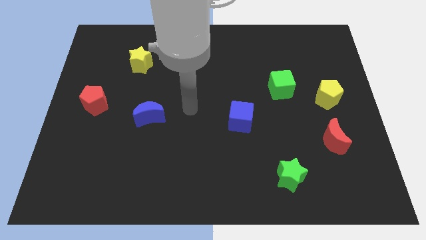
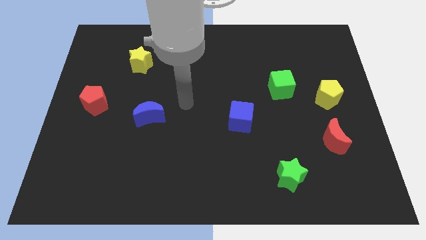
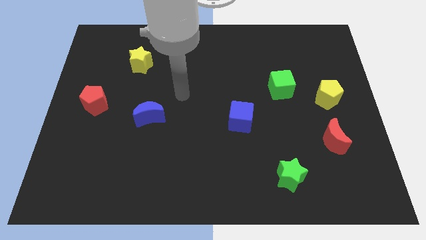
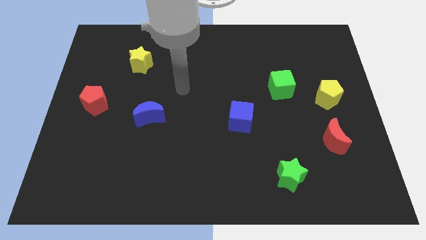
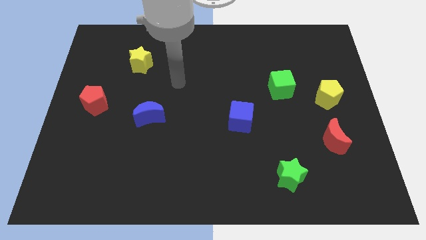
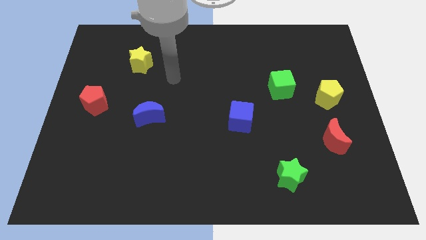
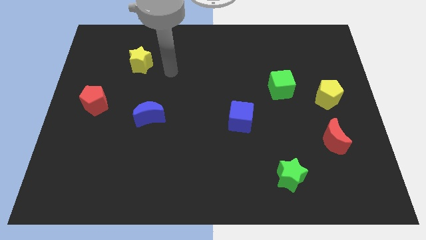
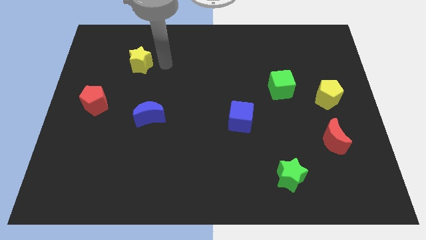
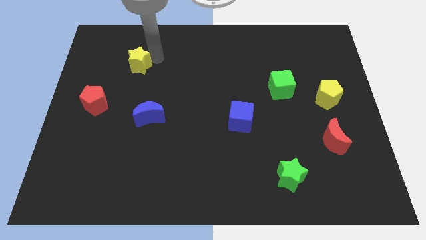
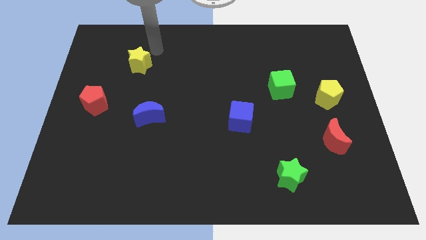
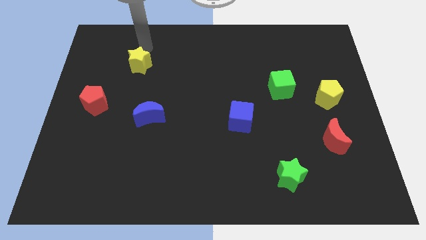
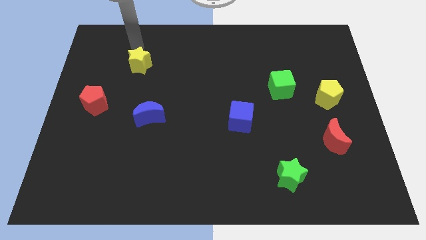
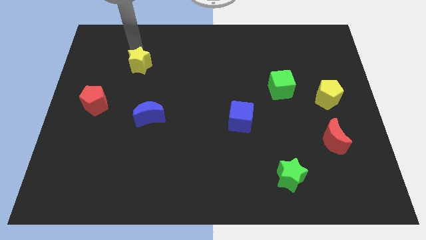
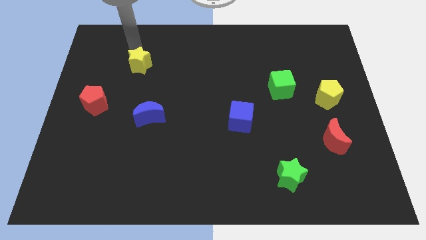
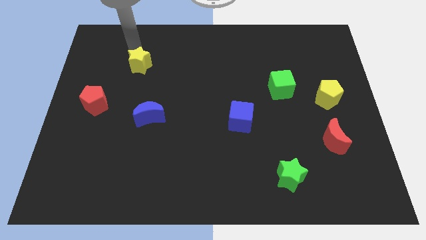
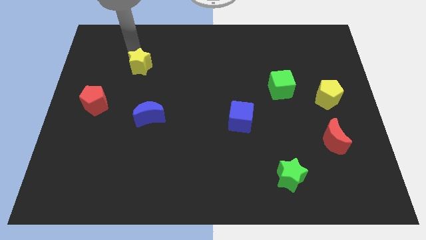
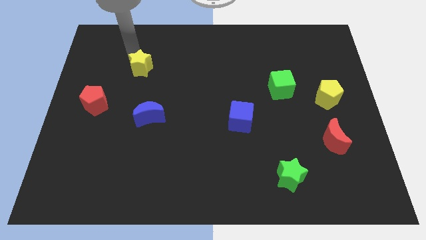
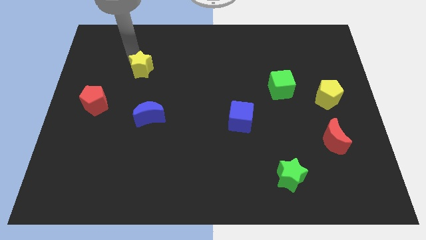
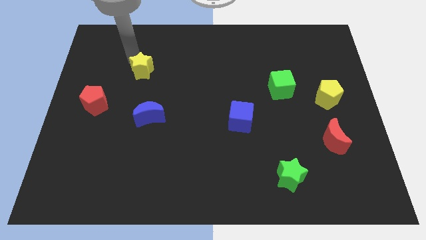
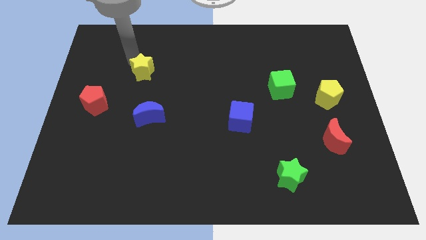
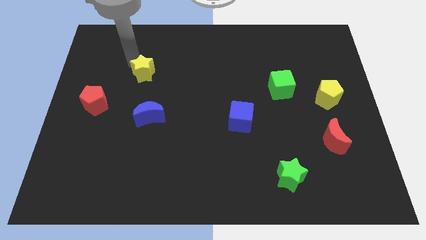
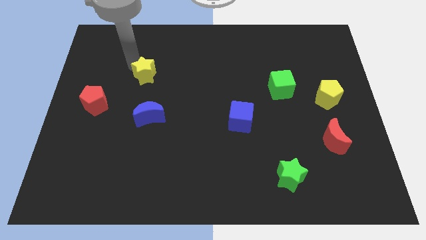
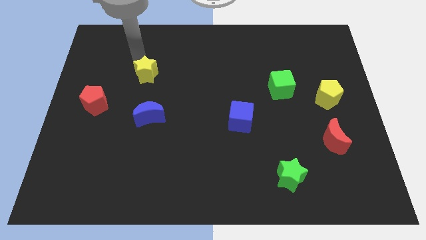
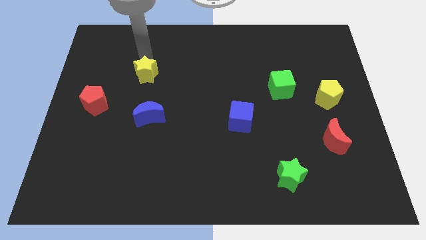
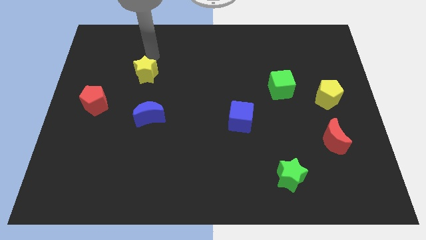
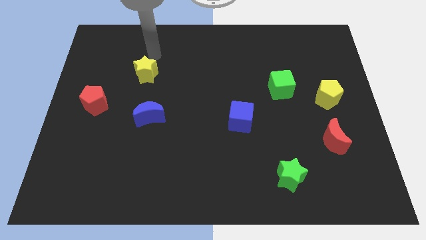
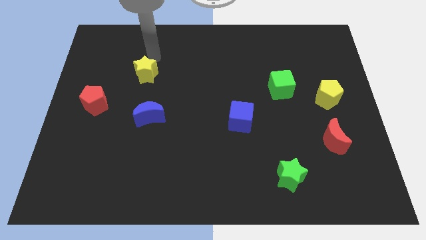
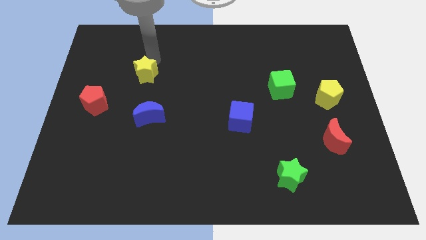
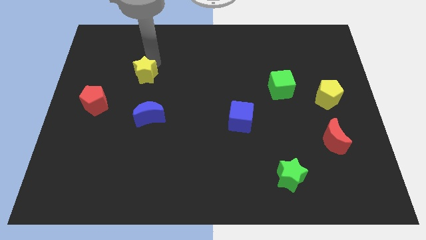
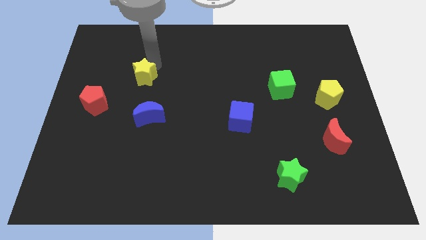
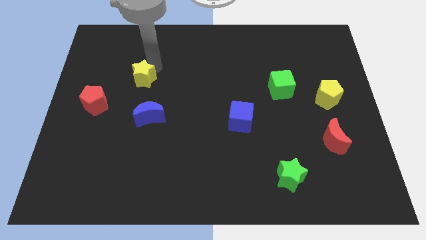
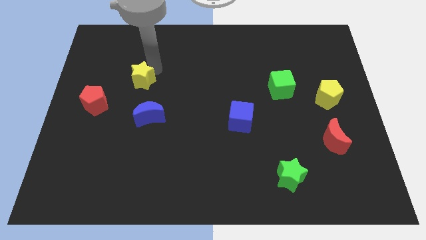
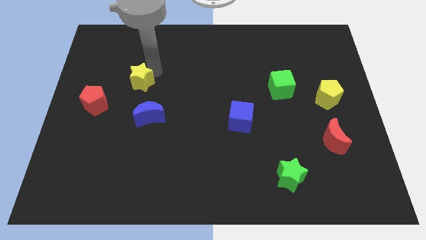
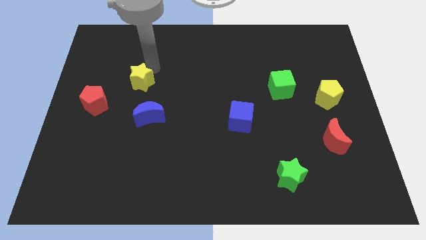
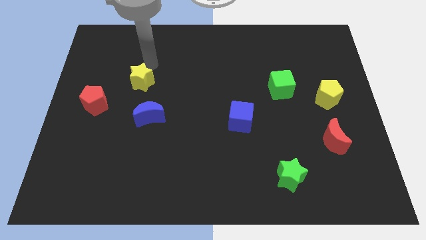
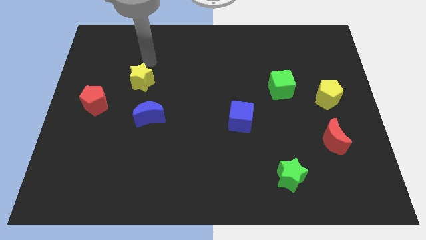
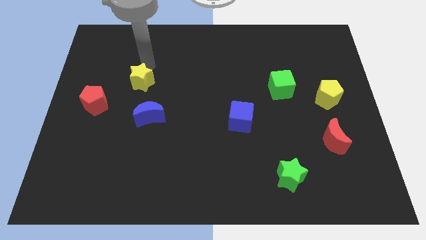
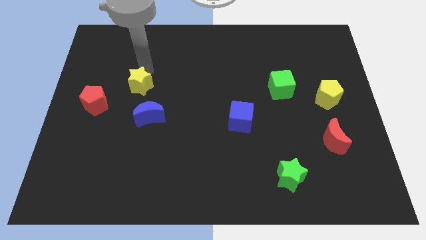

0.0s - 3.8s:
slightly push the yellow star downwards

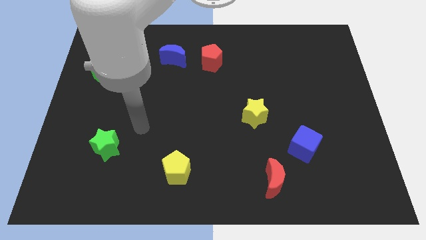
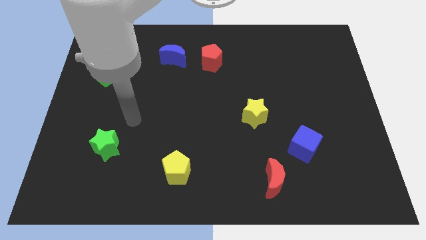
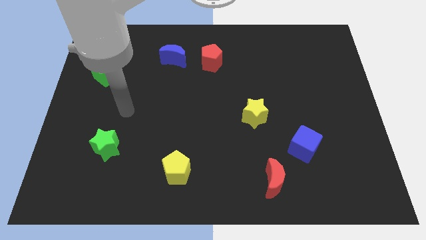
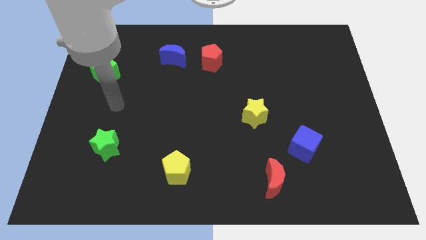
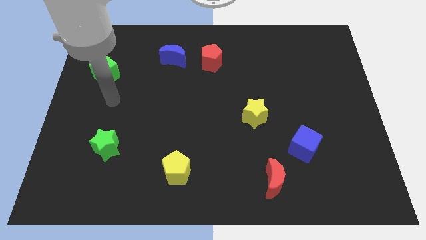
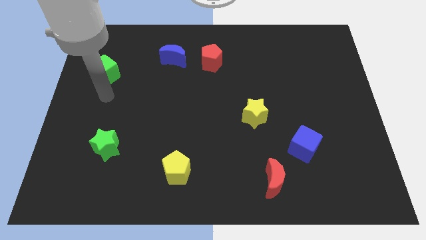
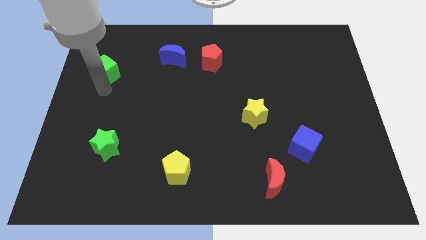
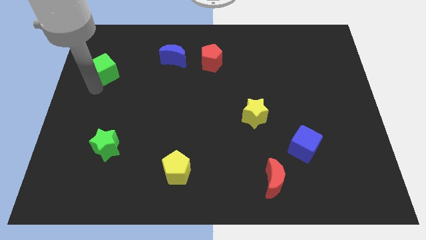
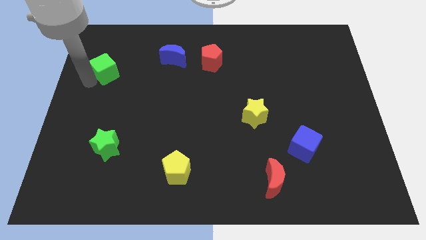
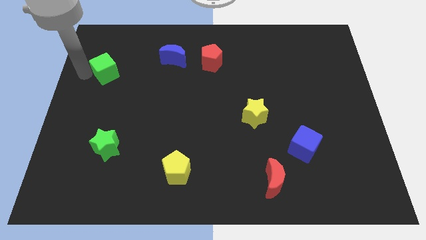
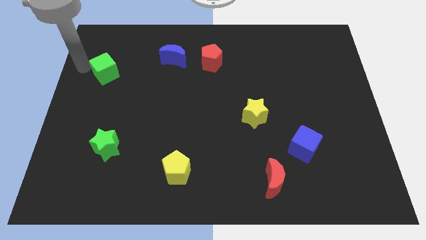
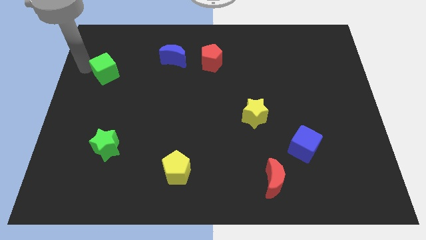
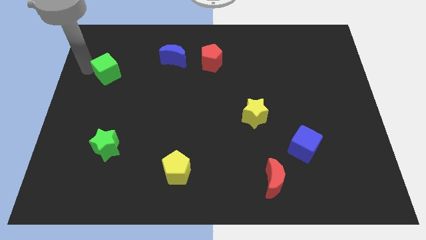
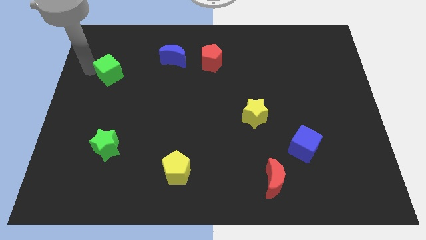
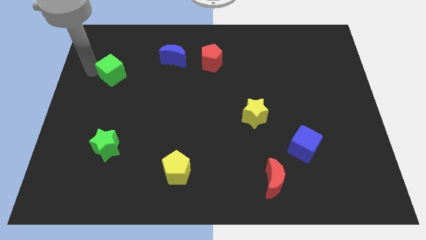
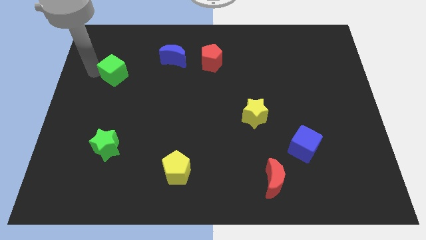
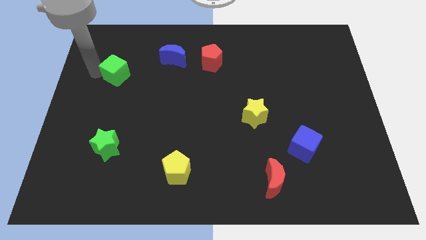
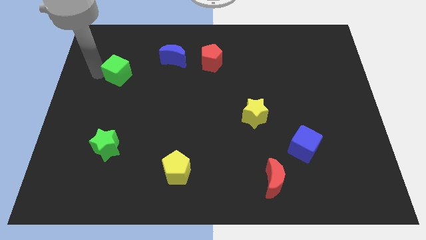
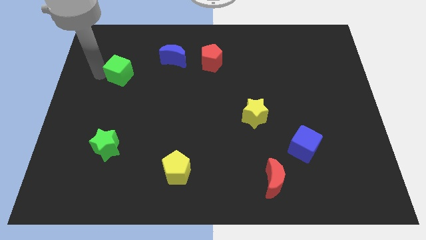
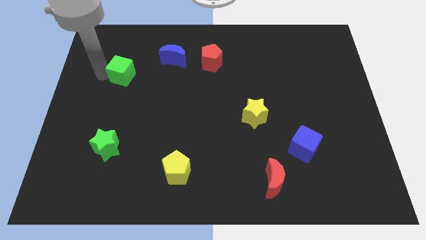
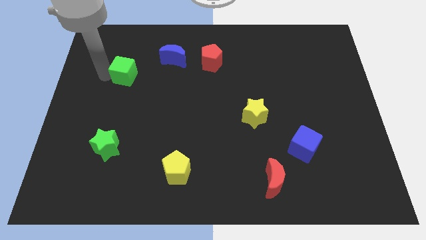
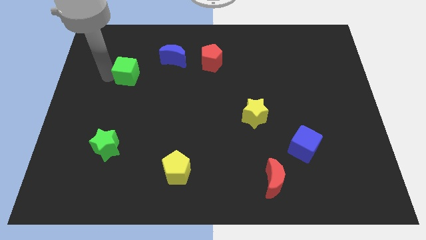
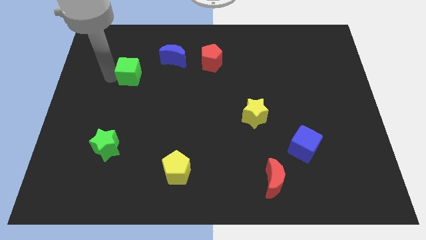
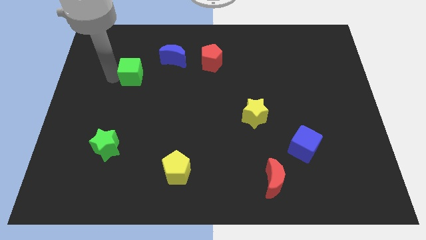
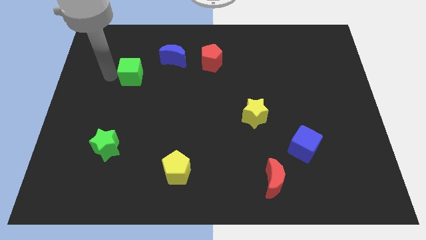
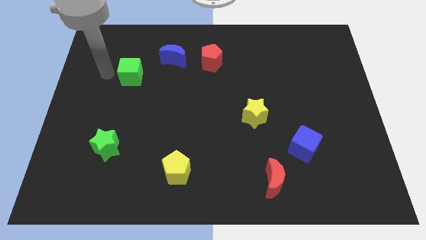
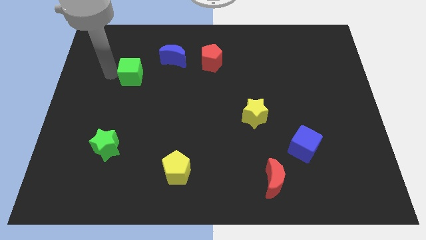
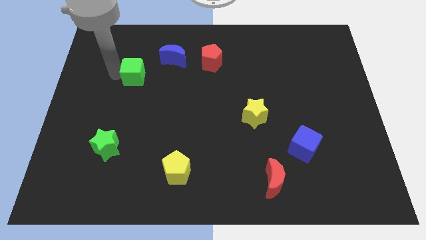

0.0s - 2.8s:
move the green cube to the right a bit

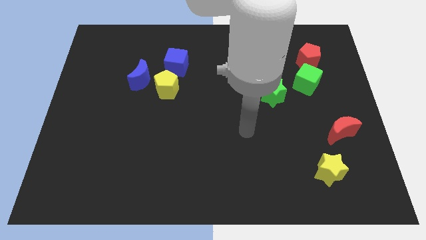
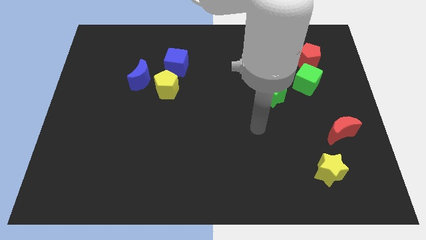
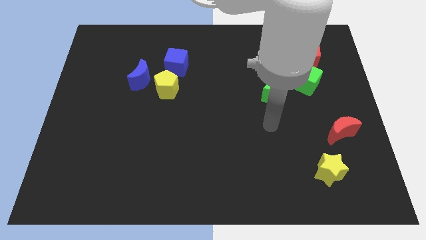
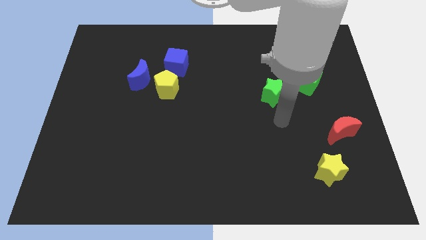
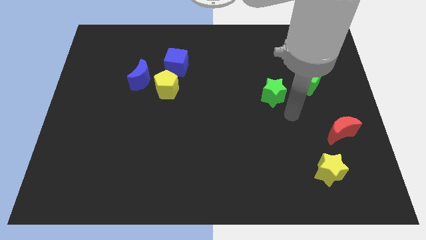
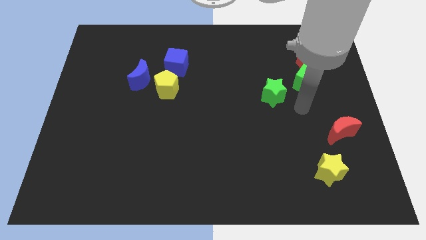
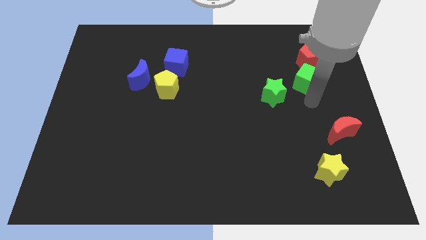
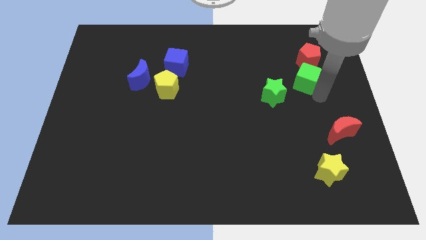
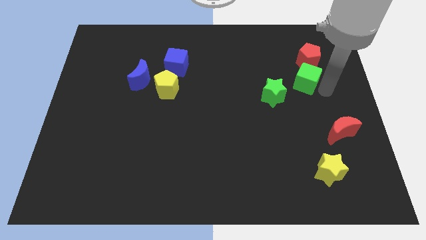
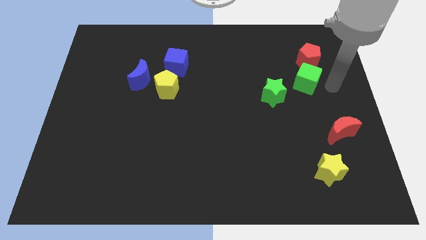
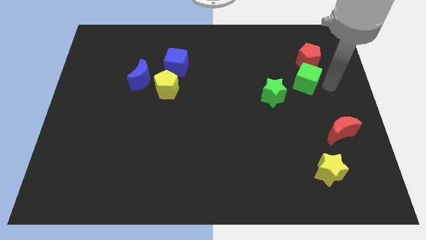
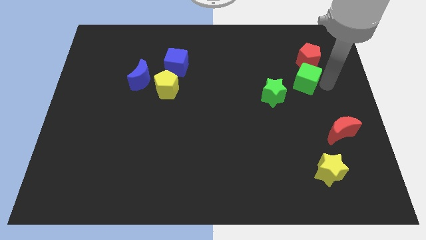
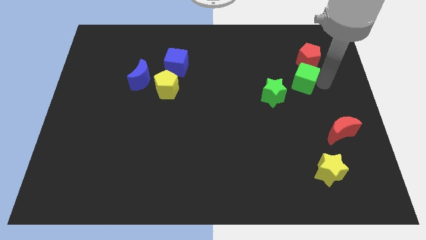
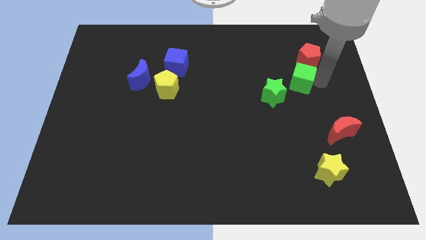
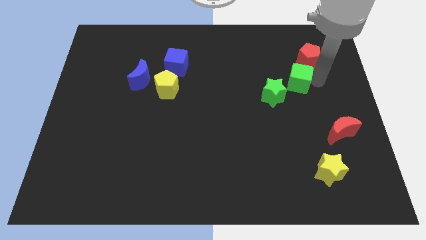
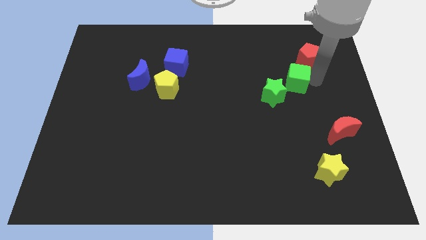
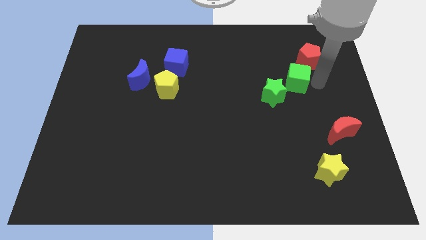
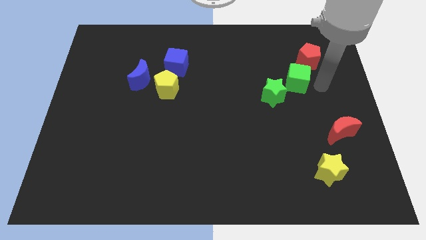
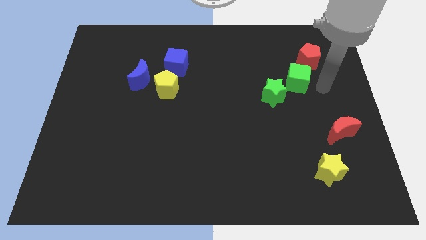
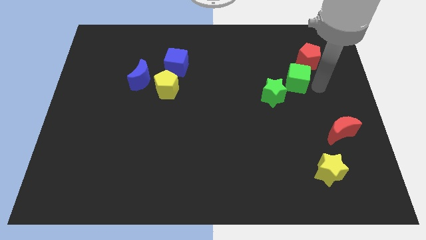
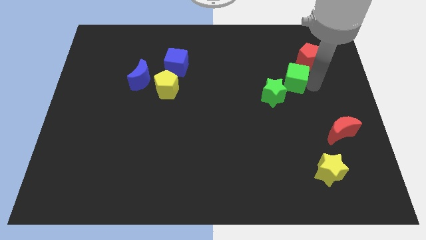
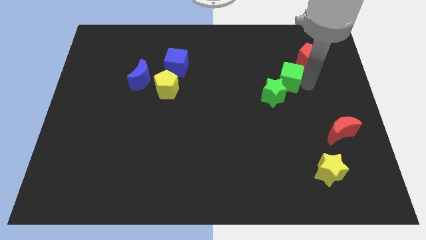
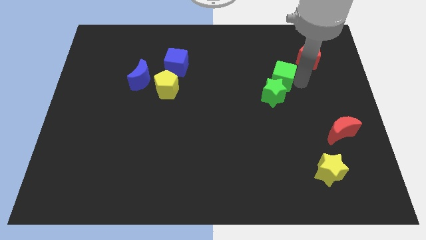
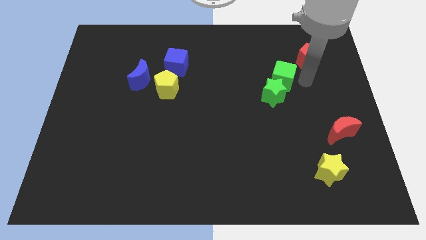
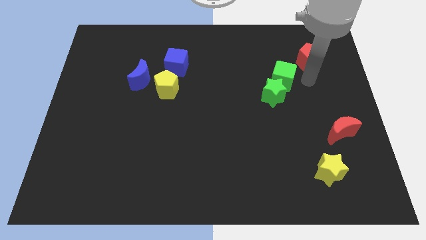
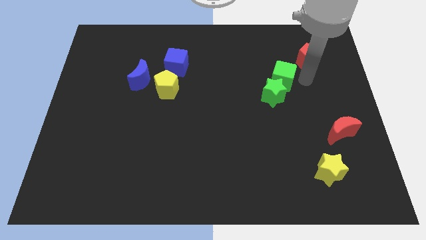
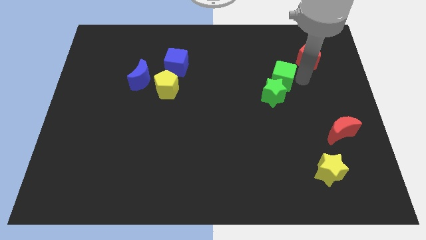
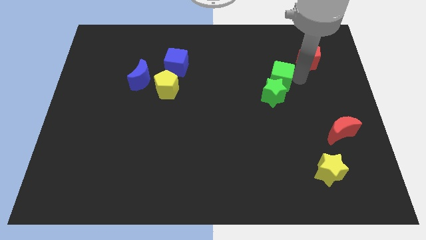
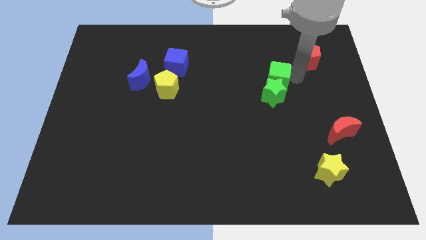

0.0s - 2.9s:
push the green cube to the left slightly
